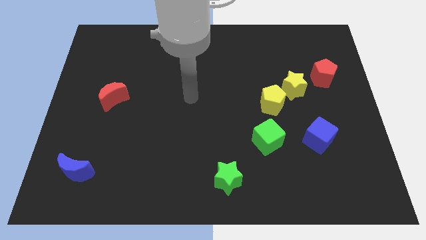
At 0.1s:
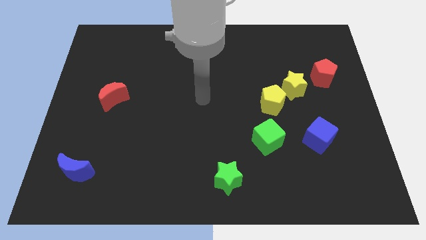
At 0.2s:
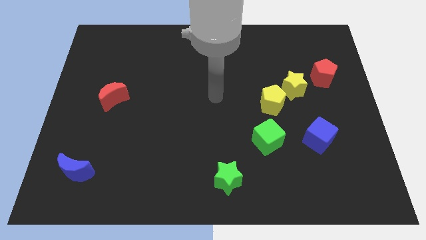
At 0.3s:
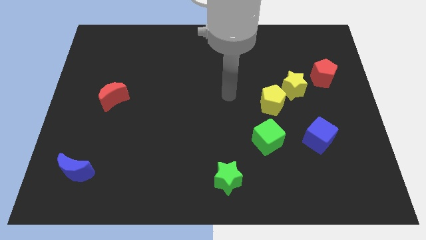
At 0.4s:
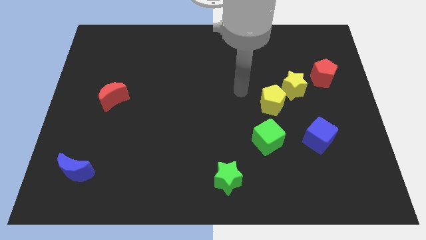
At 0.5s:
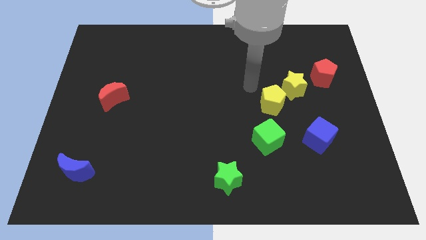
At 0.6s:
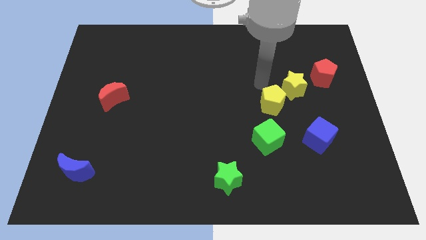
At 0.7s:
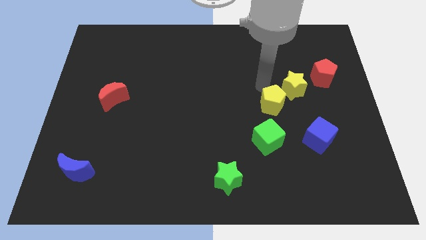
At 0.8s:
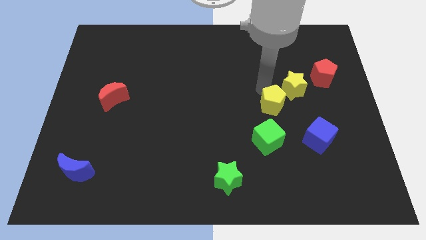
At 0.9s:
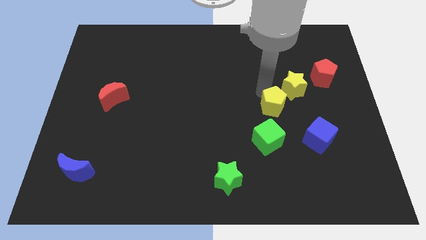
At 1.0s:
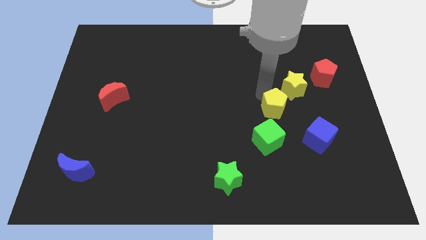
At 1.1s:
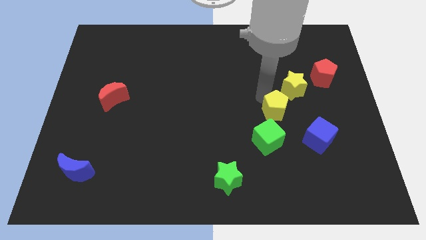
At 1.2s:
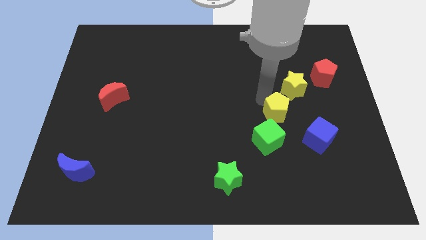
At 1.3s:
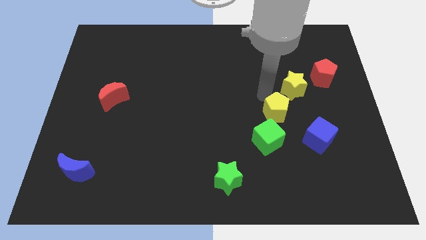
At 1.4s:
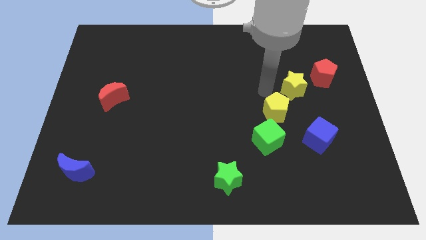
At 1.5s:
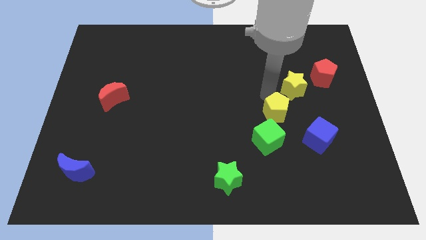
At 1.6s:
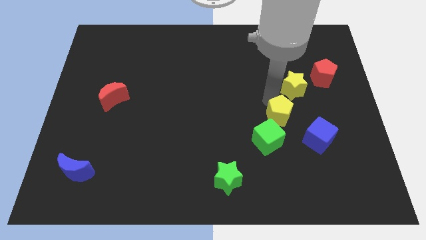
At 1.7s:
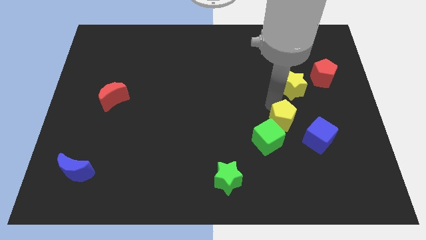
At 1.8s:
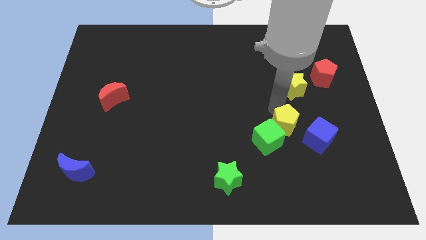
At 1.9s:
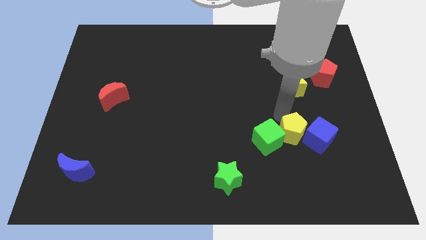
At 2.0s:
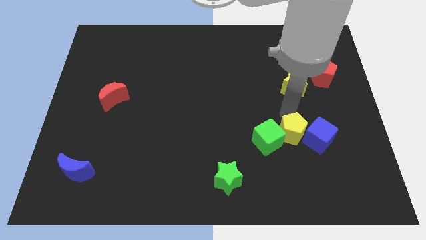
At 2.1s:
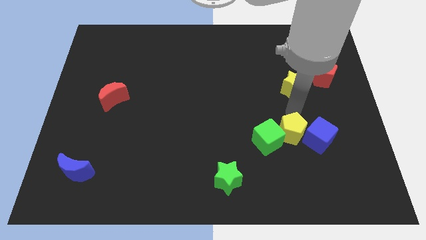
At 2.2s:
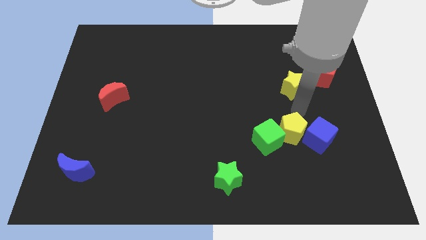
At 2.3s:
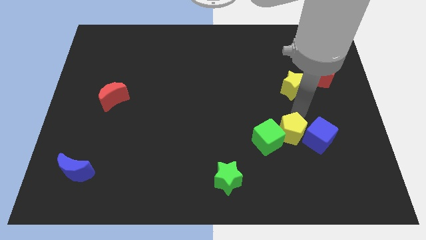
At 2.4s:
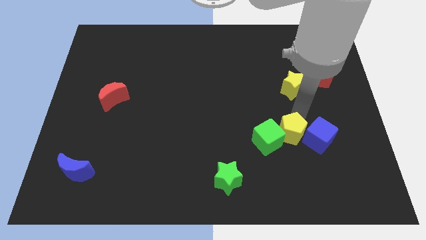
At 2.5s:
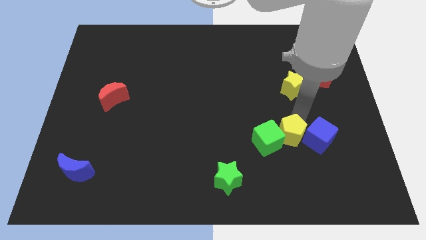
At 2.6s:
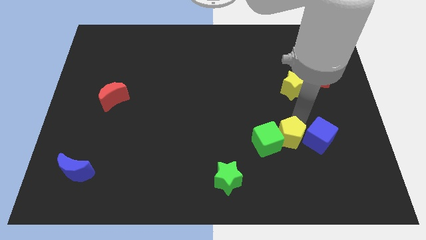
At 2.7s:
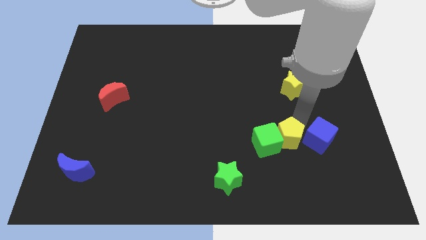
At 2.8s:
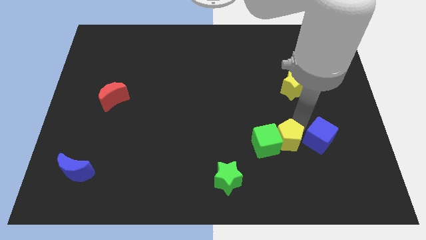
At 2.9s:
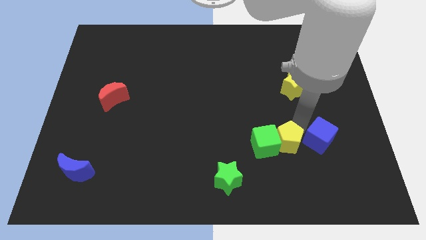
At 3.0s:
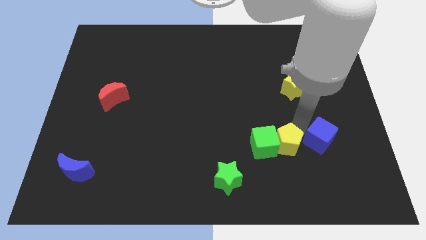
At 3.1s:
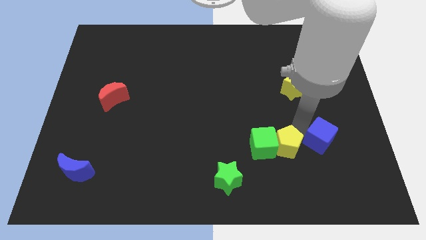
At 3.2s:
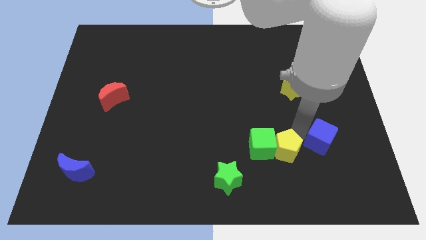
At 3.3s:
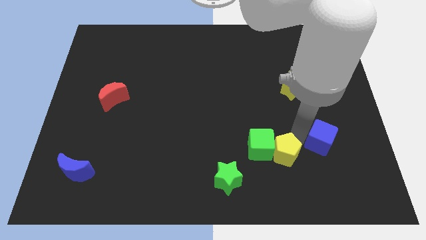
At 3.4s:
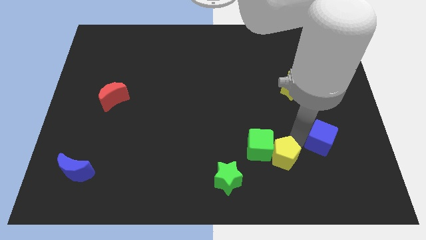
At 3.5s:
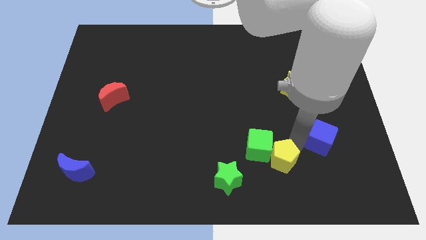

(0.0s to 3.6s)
put the yellow pentagon right of the green star

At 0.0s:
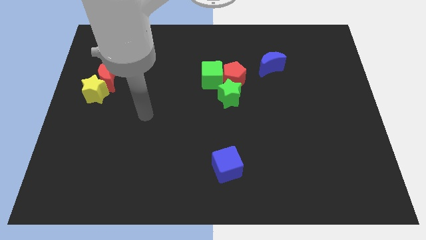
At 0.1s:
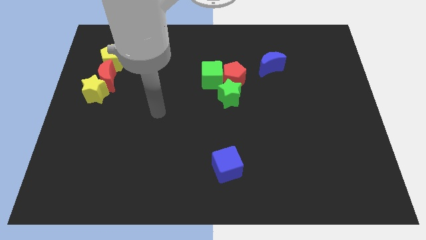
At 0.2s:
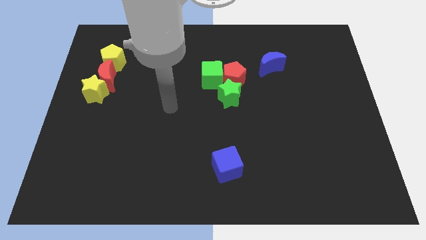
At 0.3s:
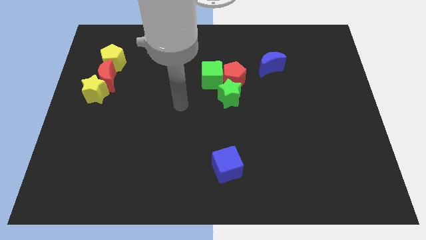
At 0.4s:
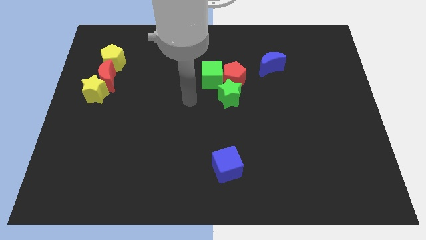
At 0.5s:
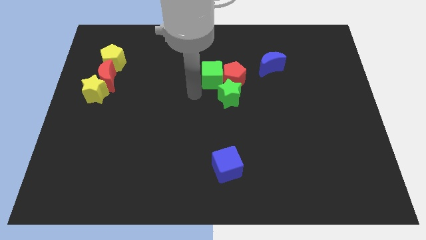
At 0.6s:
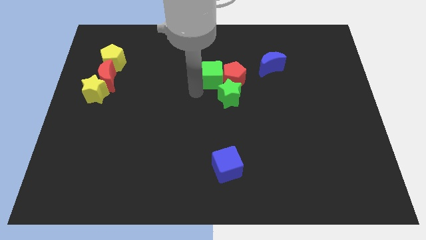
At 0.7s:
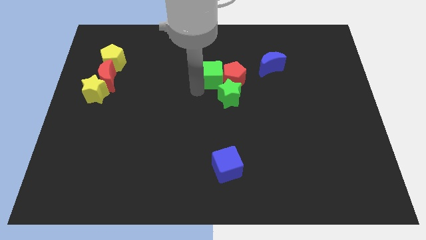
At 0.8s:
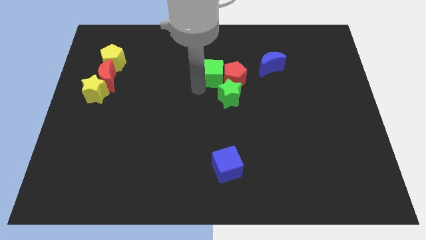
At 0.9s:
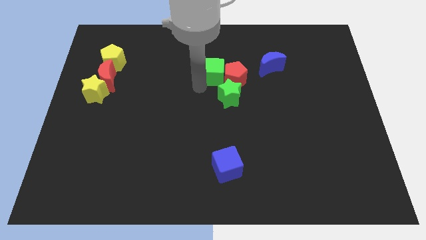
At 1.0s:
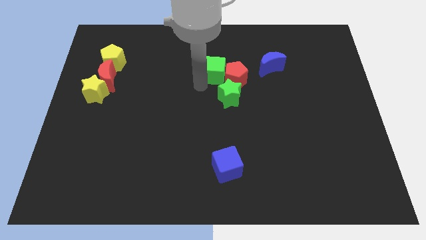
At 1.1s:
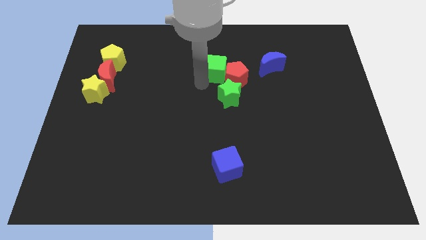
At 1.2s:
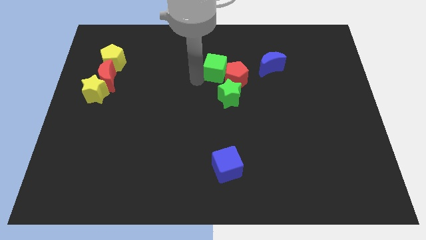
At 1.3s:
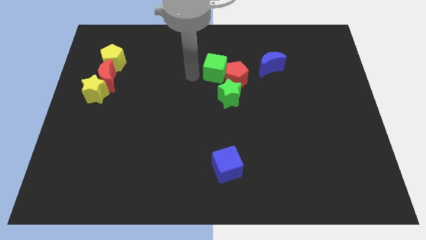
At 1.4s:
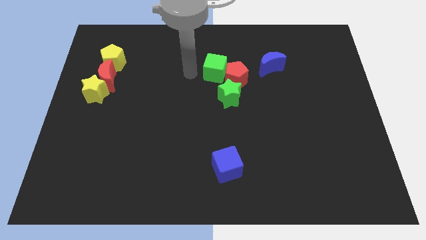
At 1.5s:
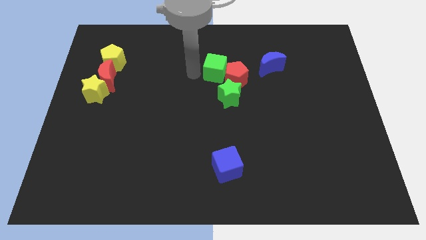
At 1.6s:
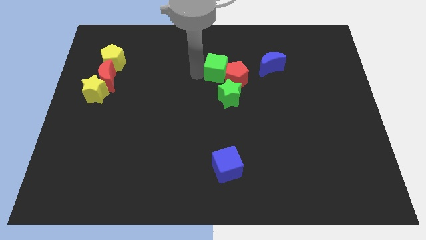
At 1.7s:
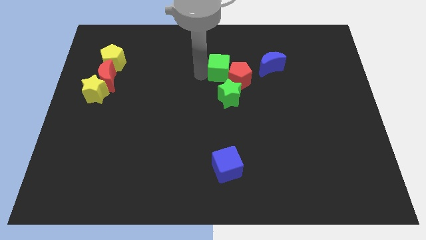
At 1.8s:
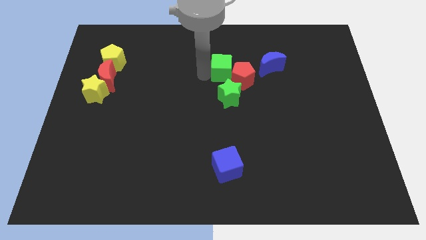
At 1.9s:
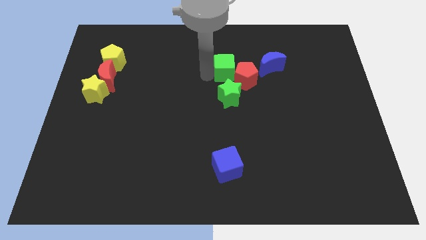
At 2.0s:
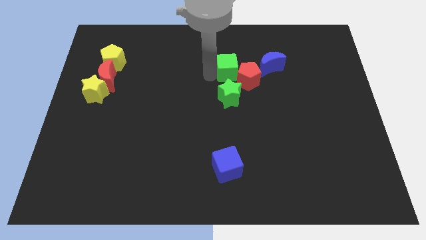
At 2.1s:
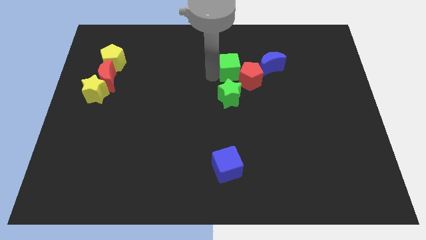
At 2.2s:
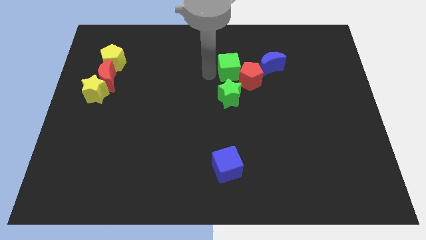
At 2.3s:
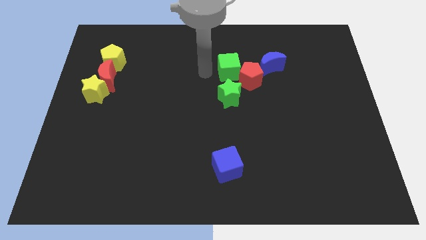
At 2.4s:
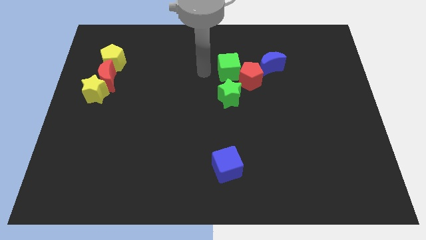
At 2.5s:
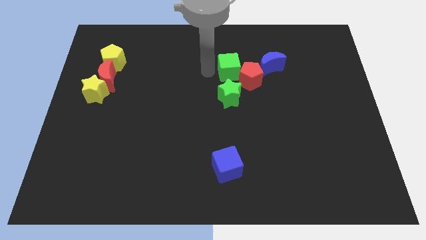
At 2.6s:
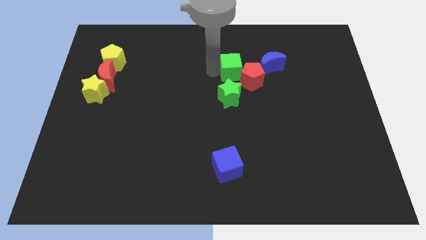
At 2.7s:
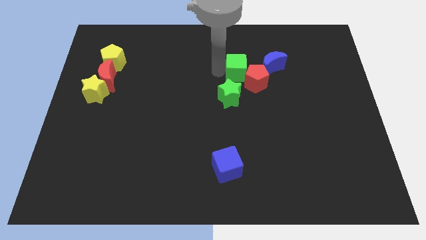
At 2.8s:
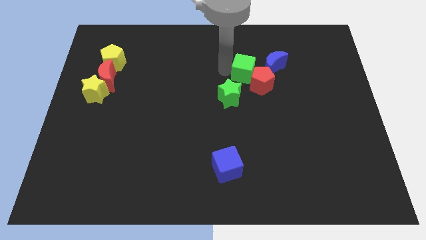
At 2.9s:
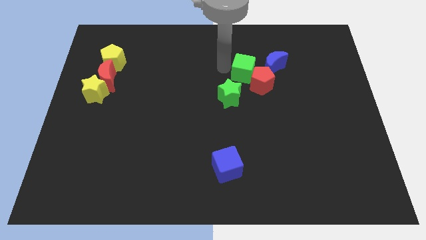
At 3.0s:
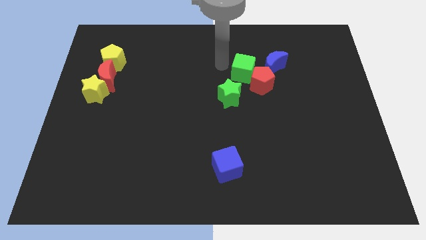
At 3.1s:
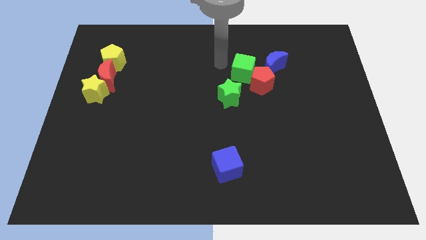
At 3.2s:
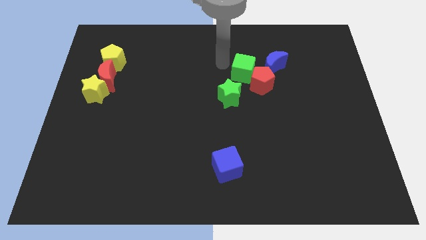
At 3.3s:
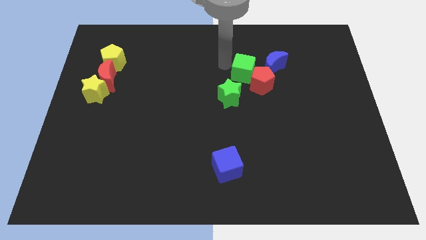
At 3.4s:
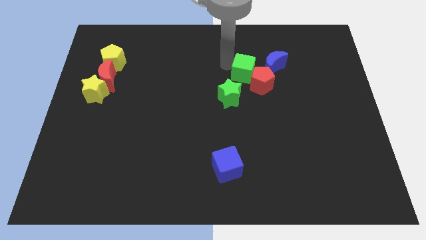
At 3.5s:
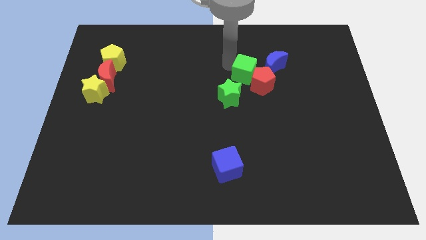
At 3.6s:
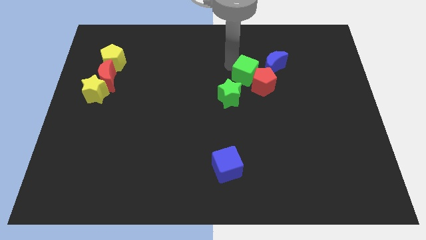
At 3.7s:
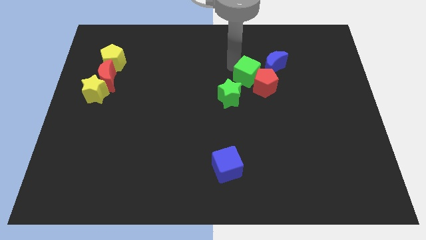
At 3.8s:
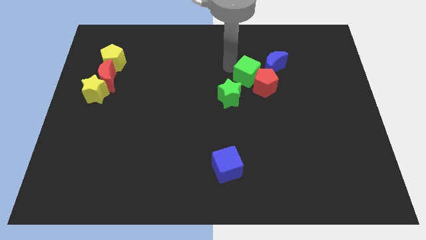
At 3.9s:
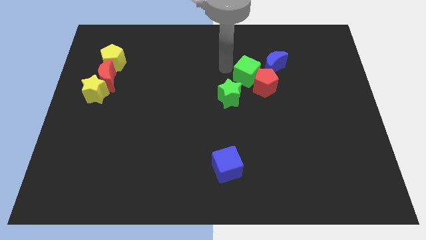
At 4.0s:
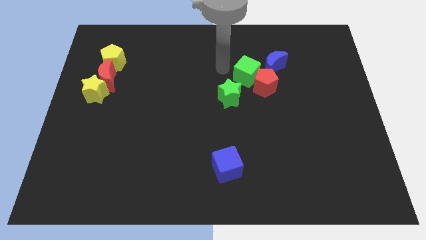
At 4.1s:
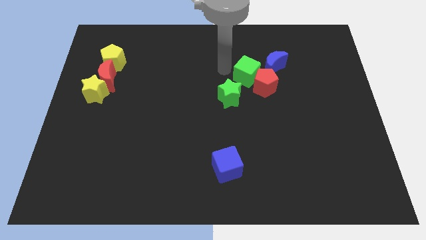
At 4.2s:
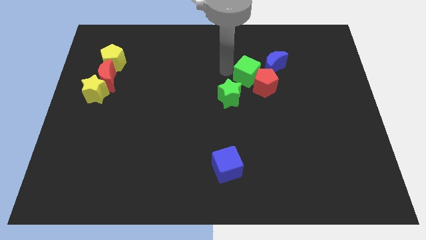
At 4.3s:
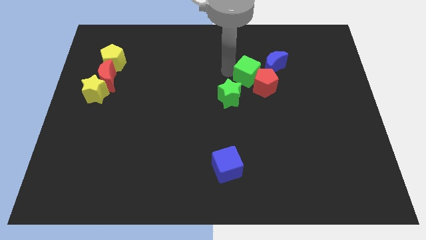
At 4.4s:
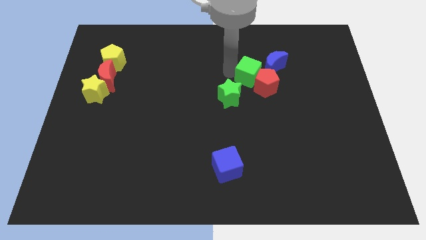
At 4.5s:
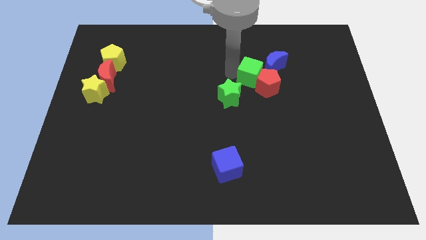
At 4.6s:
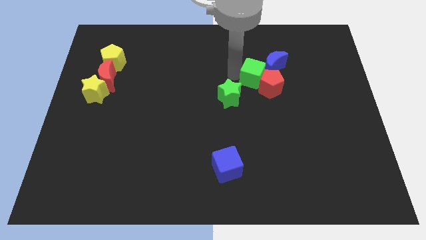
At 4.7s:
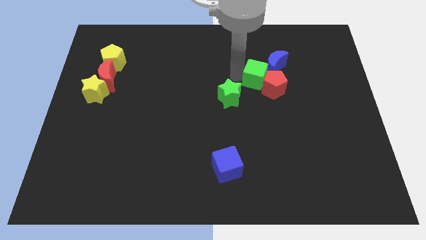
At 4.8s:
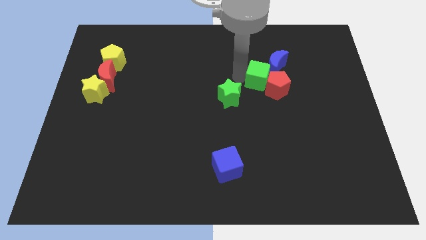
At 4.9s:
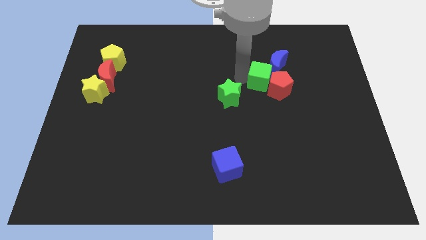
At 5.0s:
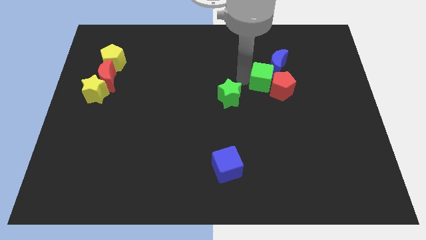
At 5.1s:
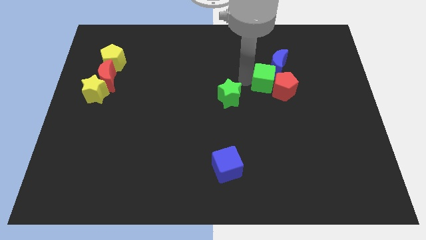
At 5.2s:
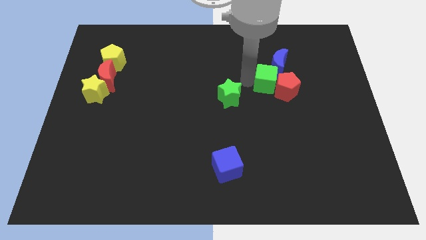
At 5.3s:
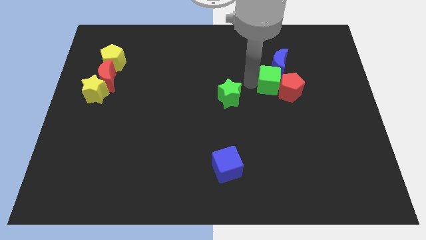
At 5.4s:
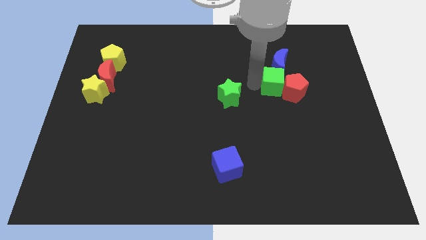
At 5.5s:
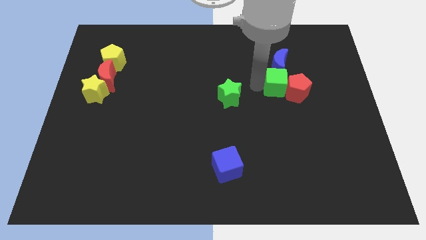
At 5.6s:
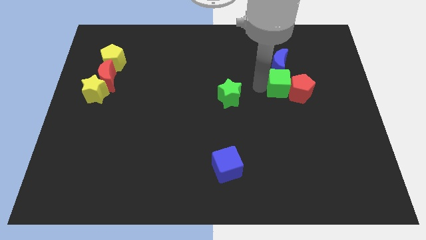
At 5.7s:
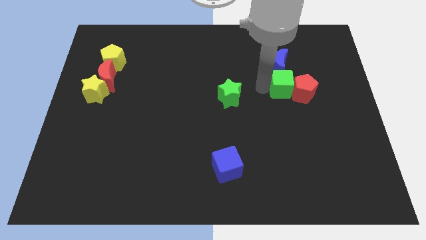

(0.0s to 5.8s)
slide the green cube to the bottom right of the blue moon
